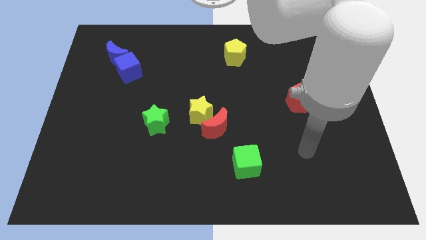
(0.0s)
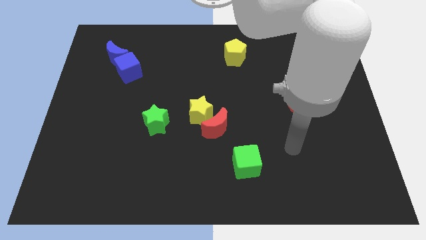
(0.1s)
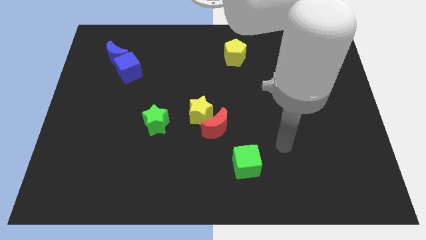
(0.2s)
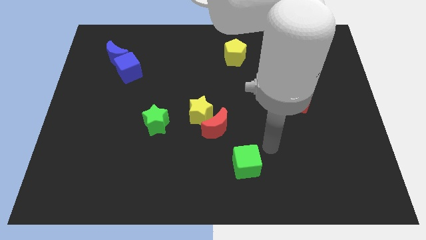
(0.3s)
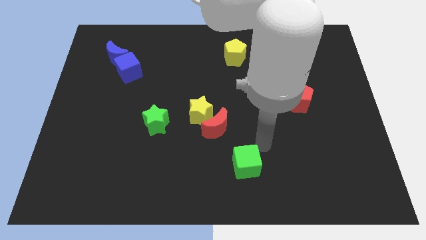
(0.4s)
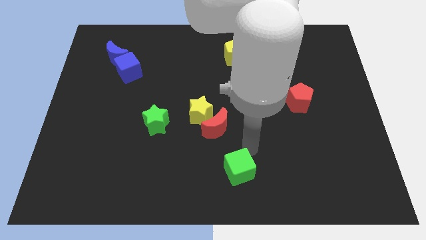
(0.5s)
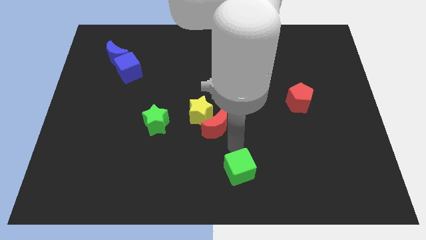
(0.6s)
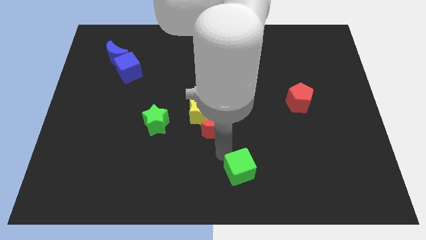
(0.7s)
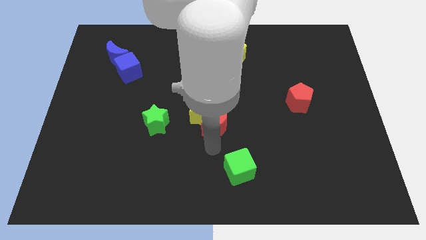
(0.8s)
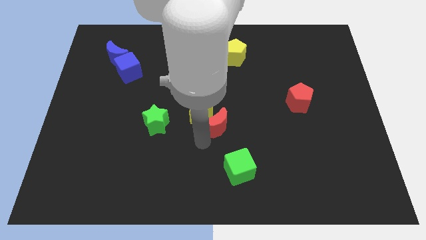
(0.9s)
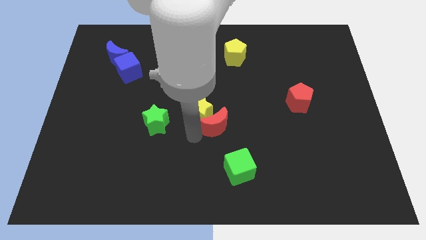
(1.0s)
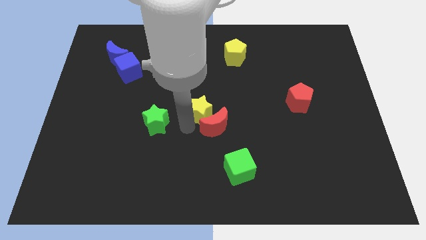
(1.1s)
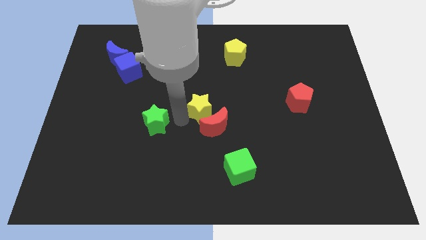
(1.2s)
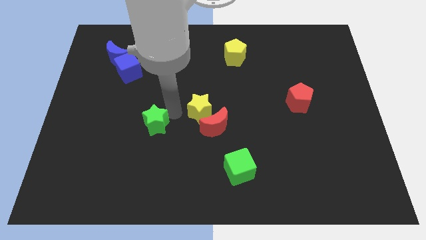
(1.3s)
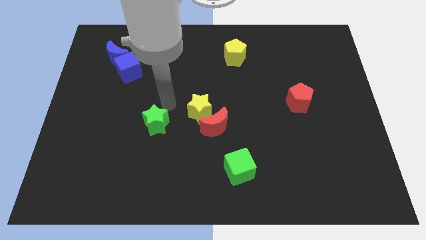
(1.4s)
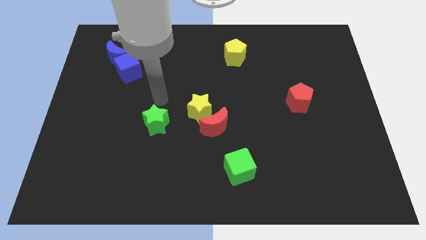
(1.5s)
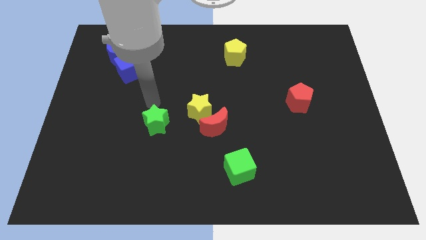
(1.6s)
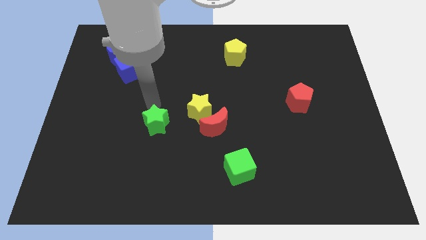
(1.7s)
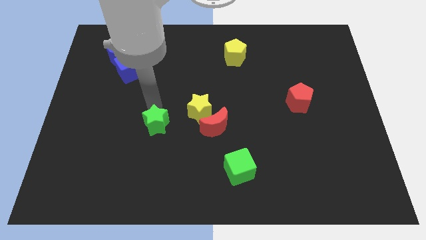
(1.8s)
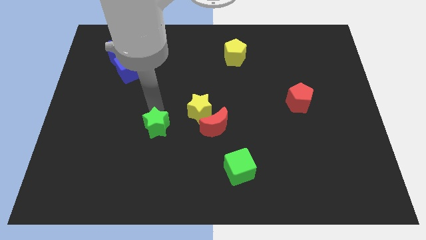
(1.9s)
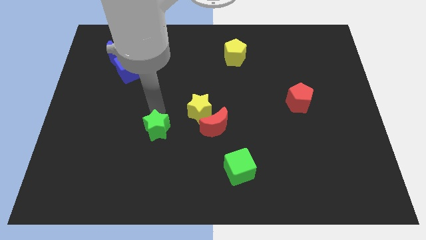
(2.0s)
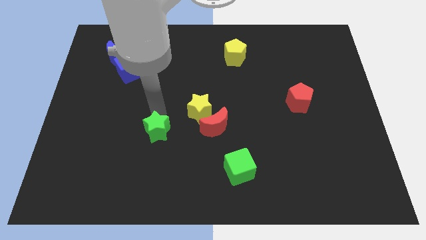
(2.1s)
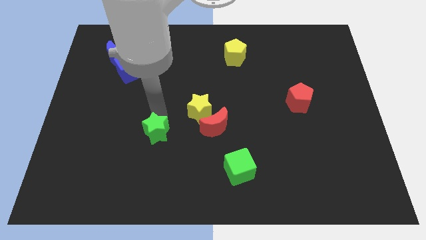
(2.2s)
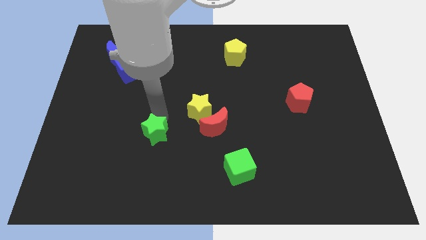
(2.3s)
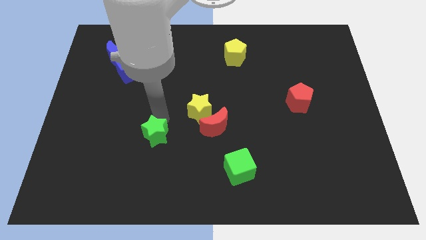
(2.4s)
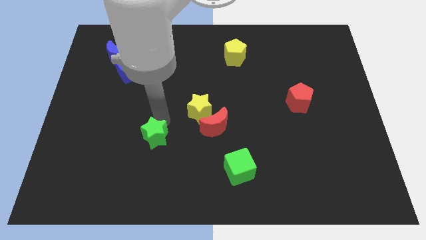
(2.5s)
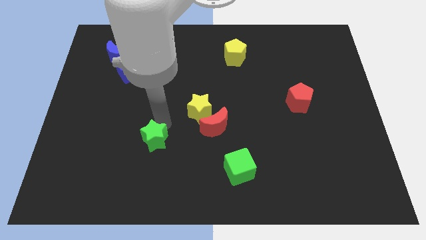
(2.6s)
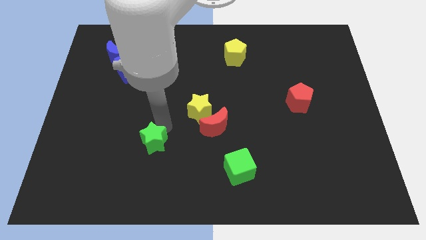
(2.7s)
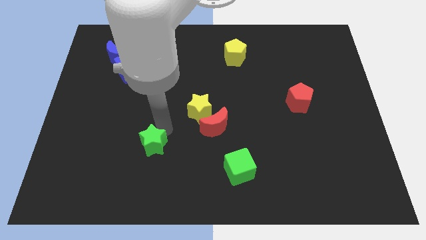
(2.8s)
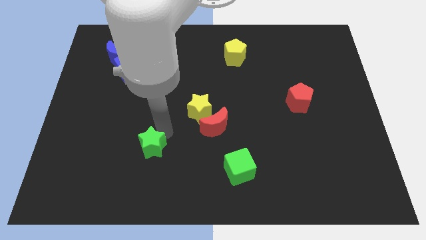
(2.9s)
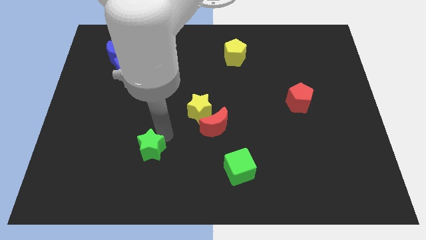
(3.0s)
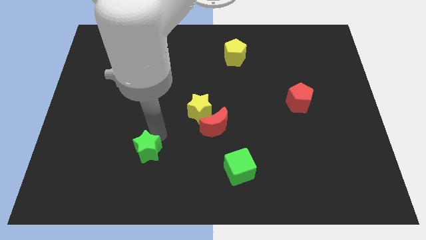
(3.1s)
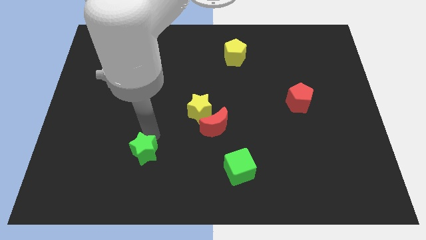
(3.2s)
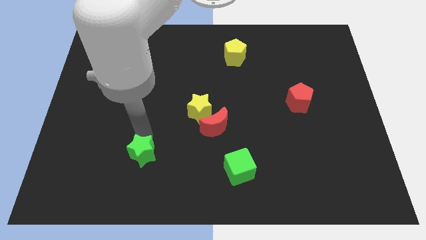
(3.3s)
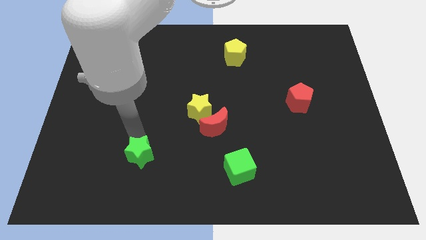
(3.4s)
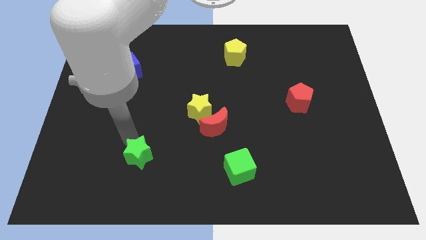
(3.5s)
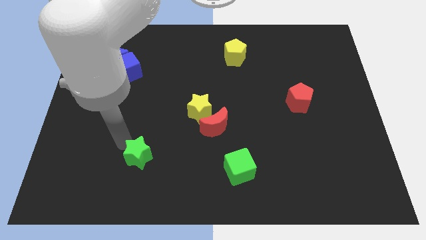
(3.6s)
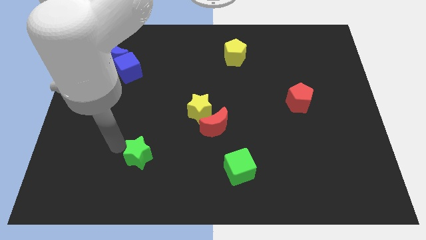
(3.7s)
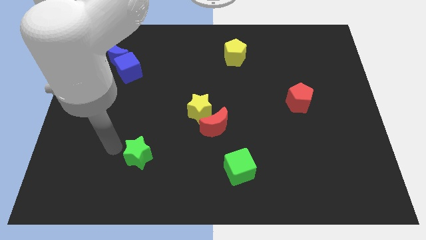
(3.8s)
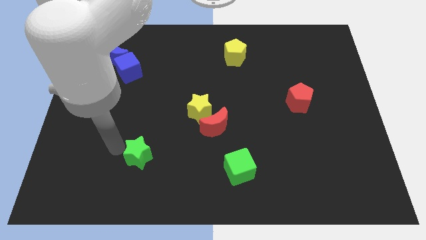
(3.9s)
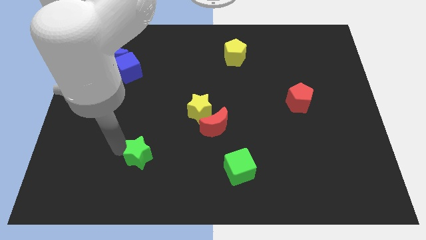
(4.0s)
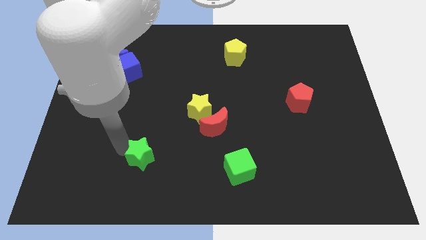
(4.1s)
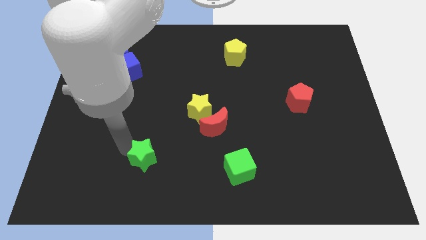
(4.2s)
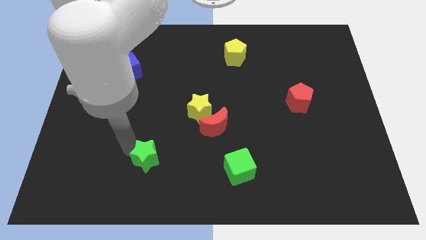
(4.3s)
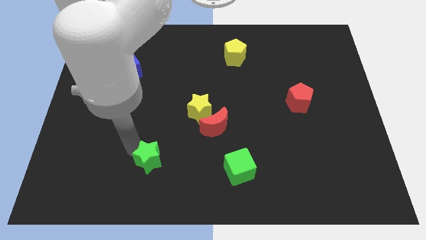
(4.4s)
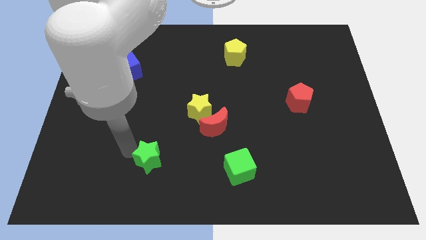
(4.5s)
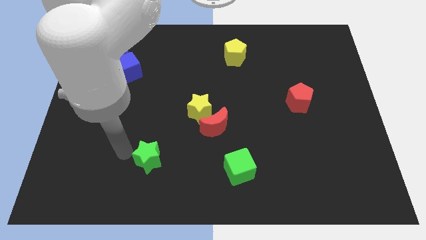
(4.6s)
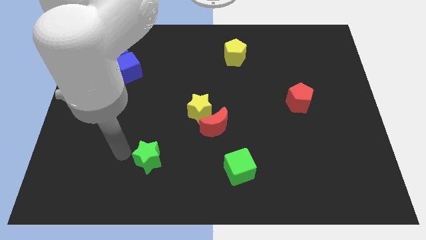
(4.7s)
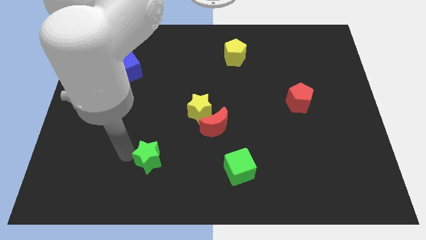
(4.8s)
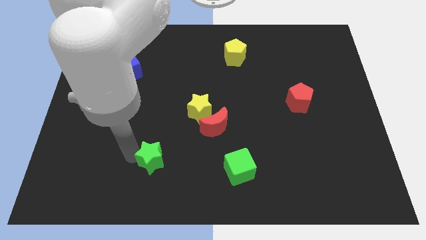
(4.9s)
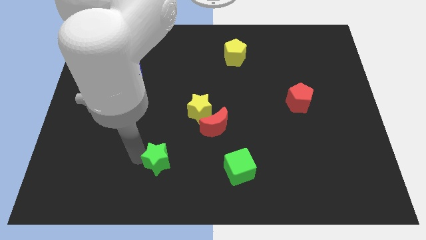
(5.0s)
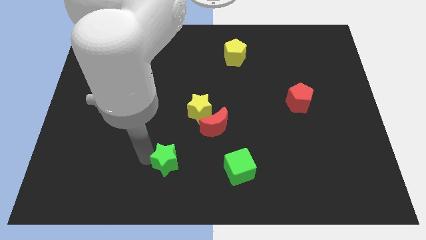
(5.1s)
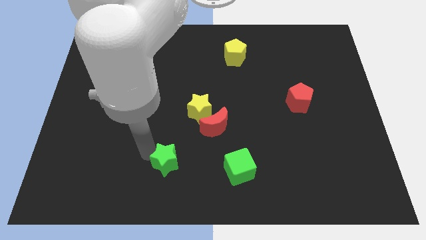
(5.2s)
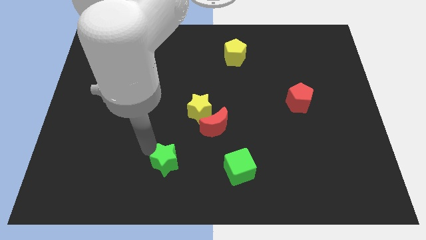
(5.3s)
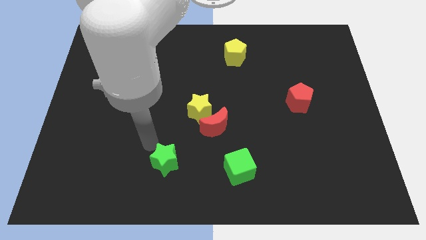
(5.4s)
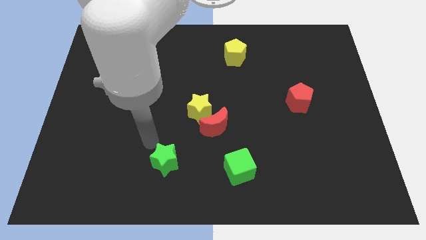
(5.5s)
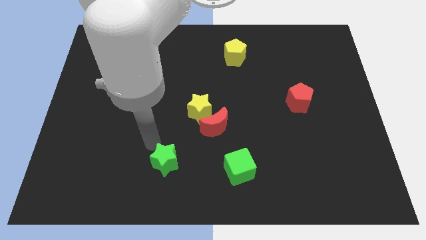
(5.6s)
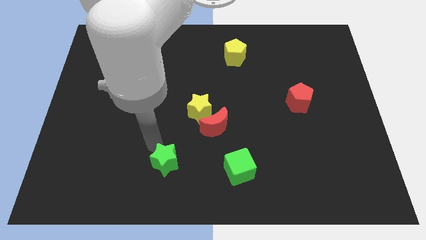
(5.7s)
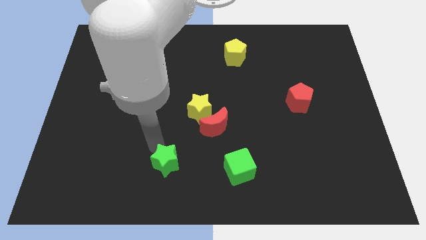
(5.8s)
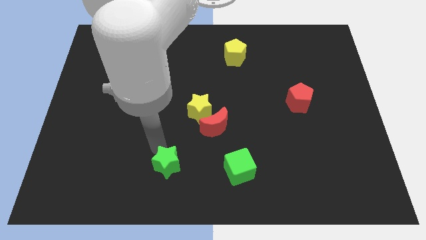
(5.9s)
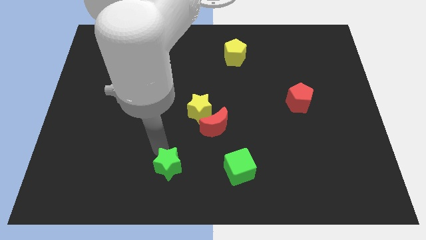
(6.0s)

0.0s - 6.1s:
slide the green star to the bottom

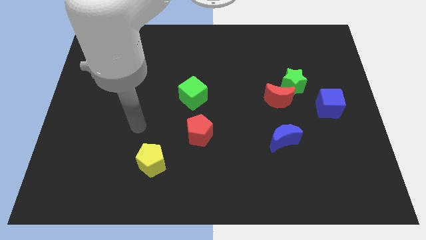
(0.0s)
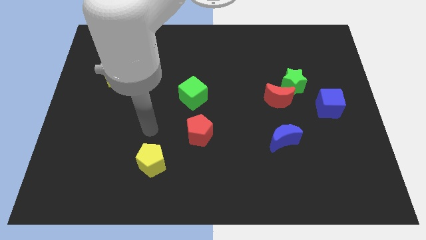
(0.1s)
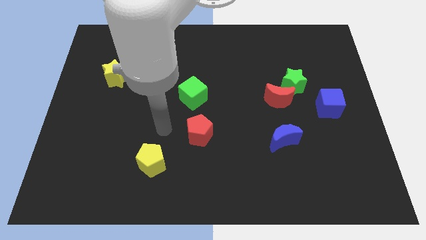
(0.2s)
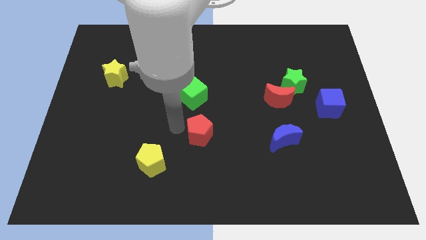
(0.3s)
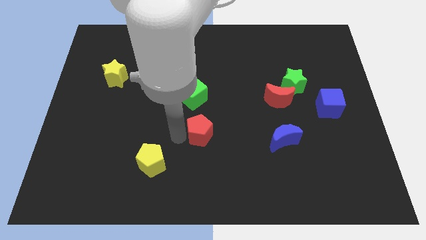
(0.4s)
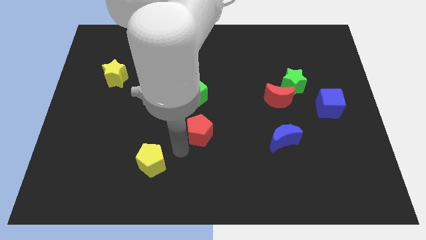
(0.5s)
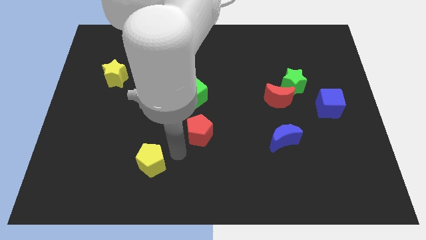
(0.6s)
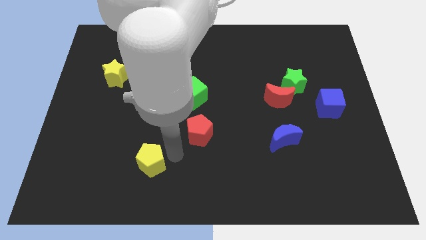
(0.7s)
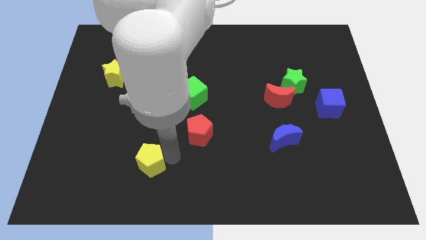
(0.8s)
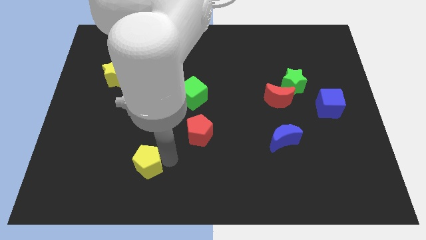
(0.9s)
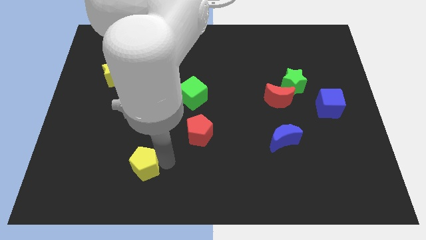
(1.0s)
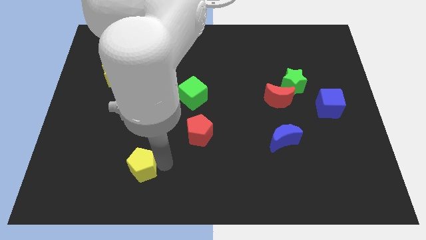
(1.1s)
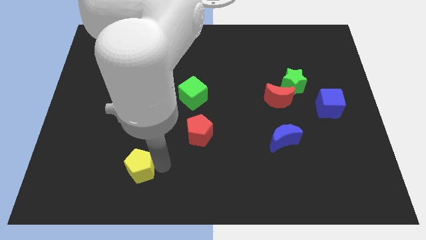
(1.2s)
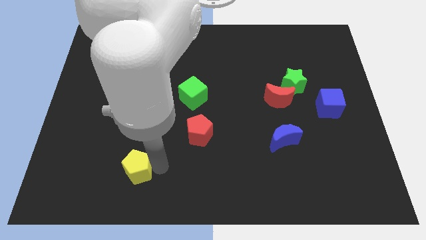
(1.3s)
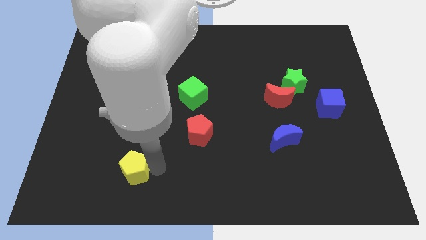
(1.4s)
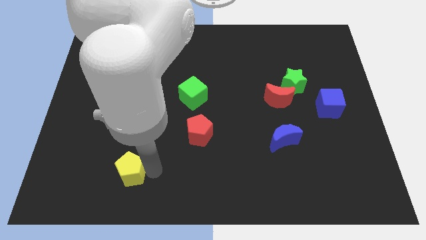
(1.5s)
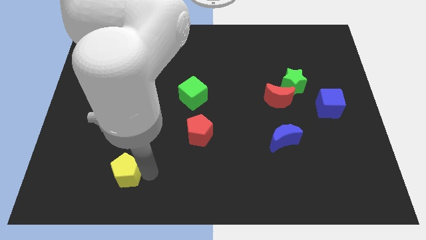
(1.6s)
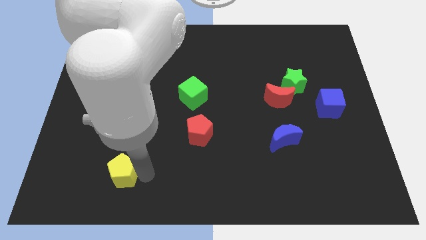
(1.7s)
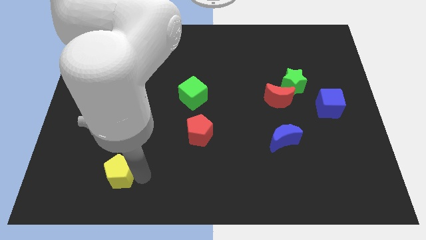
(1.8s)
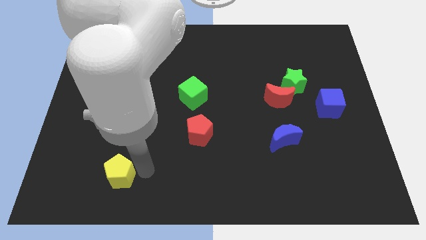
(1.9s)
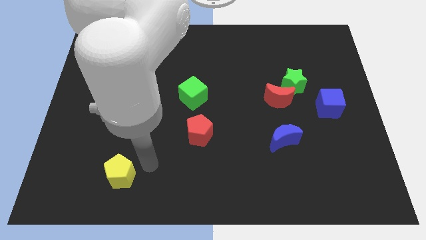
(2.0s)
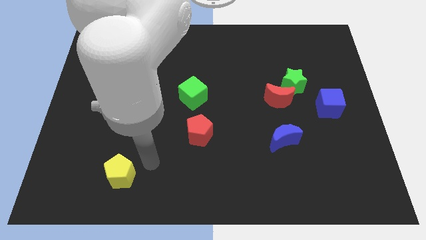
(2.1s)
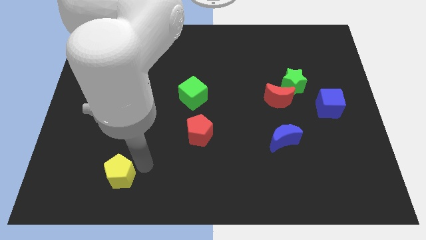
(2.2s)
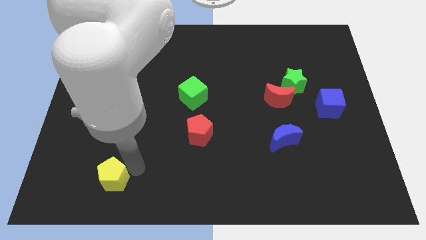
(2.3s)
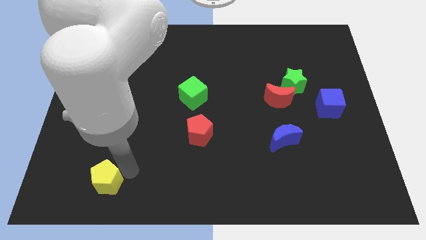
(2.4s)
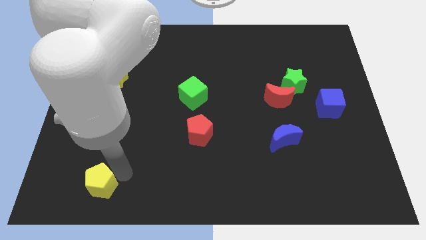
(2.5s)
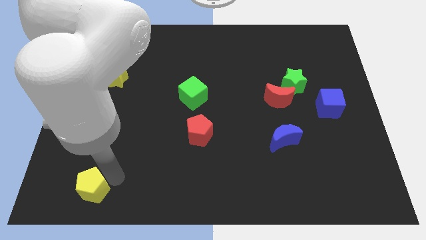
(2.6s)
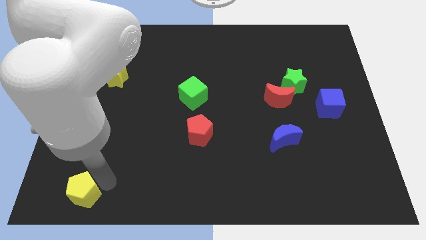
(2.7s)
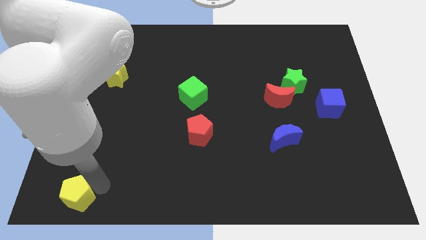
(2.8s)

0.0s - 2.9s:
slide the yellow pentagon to the bottom left
